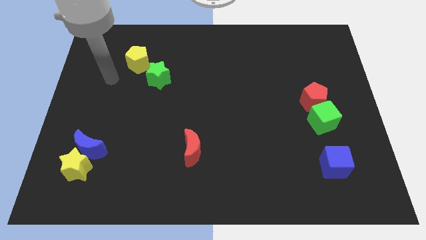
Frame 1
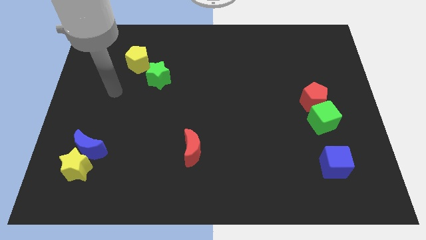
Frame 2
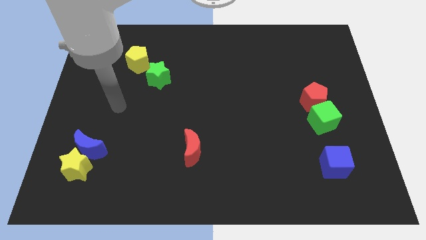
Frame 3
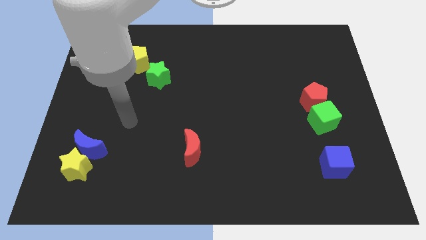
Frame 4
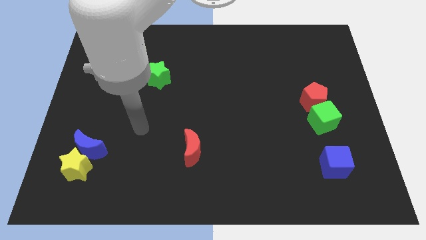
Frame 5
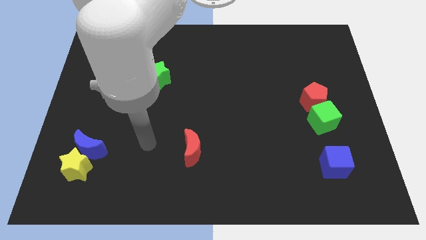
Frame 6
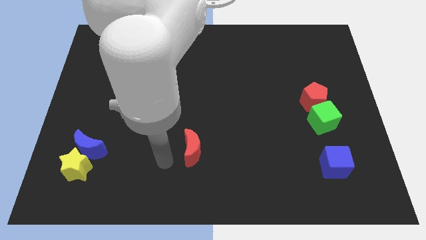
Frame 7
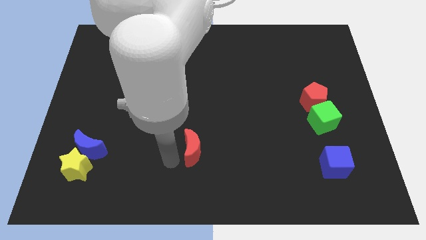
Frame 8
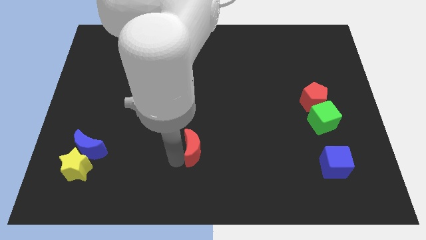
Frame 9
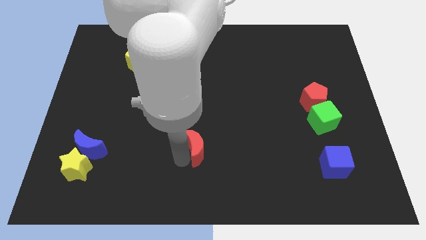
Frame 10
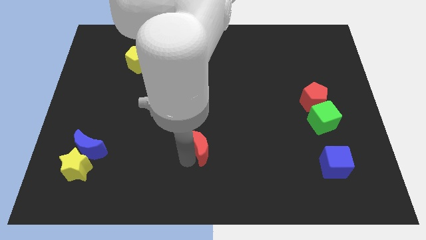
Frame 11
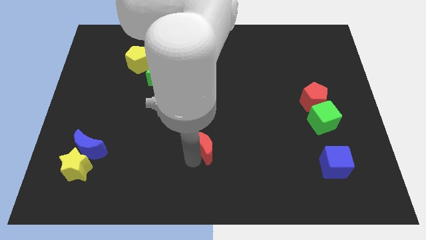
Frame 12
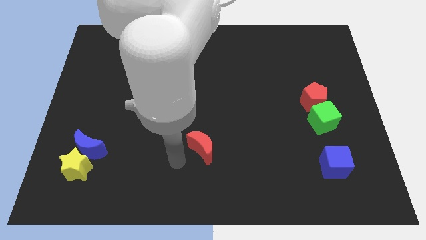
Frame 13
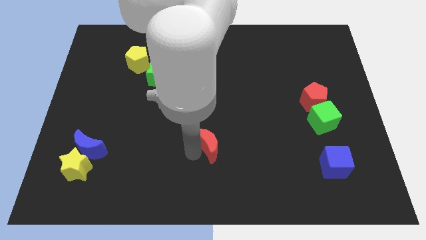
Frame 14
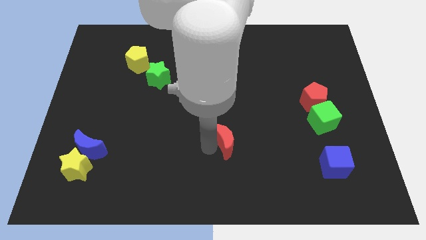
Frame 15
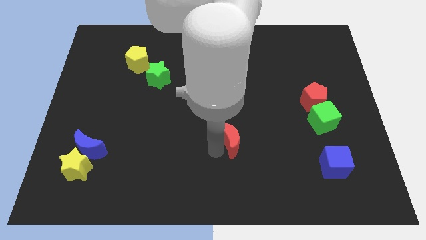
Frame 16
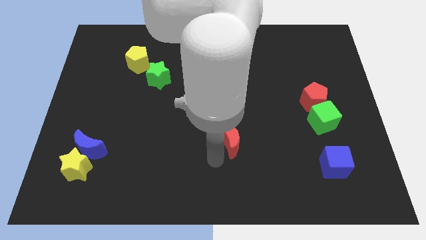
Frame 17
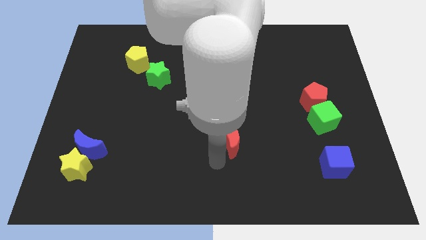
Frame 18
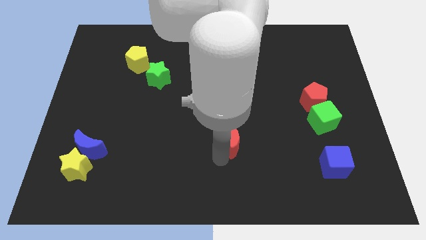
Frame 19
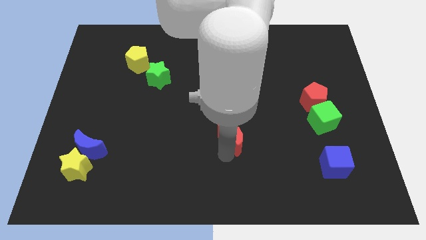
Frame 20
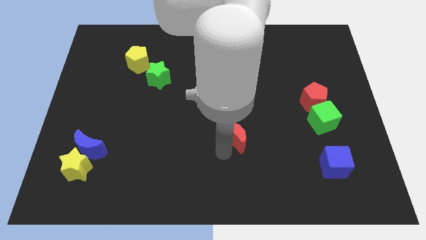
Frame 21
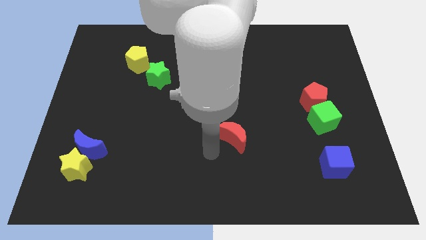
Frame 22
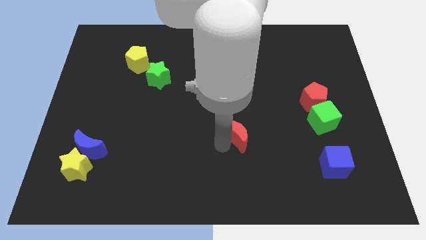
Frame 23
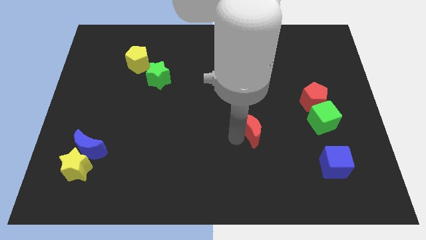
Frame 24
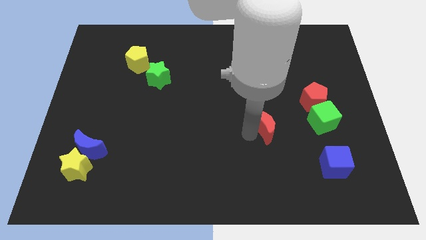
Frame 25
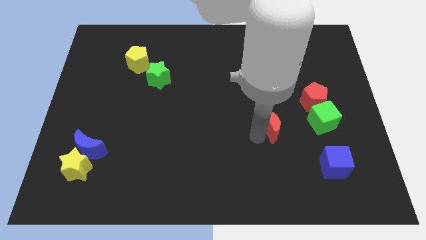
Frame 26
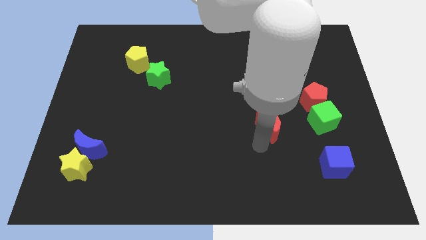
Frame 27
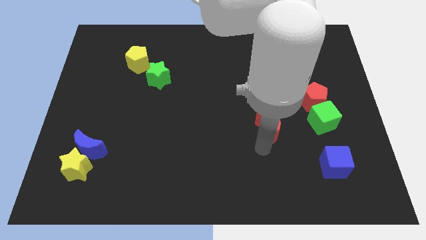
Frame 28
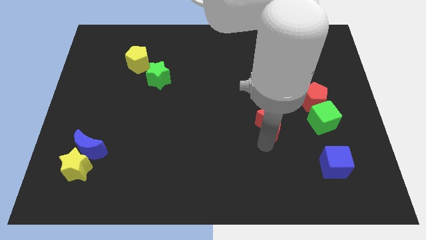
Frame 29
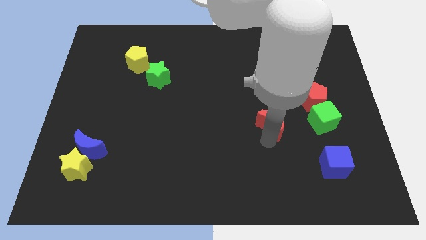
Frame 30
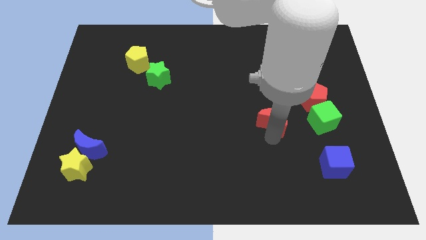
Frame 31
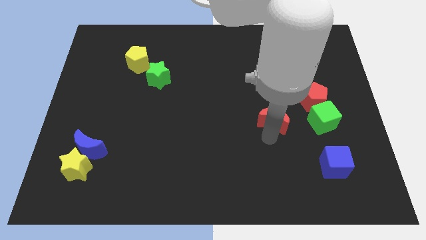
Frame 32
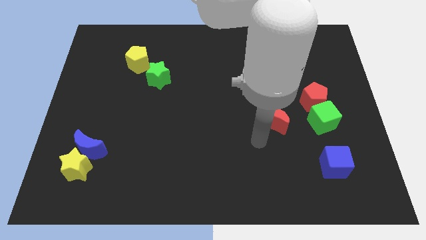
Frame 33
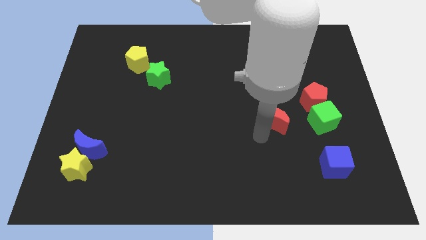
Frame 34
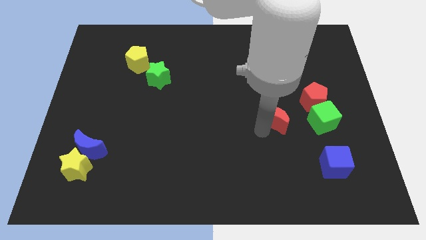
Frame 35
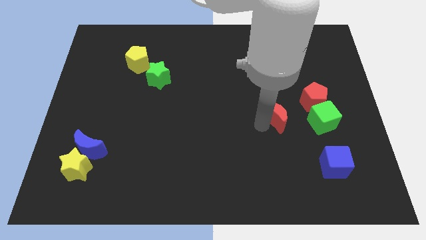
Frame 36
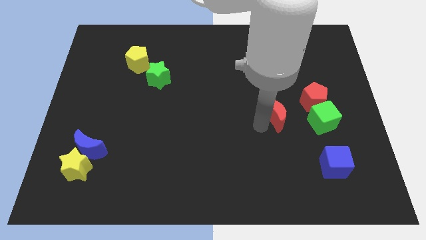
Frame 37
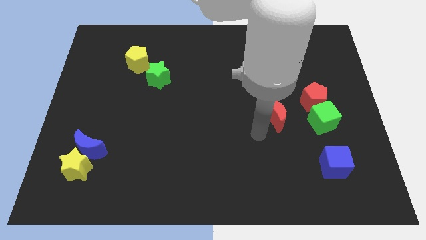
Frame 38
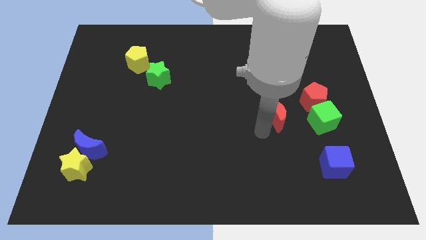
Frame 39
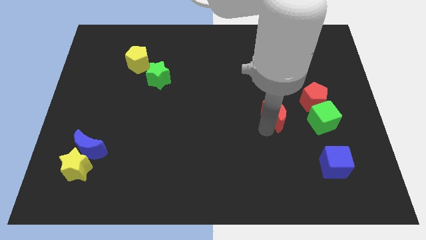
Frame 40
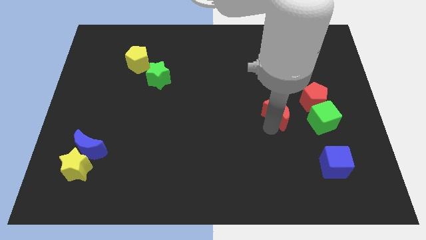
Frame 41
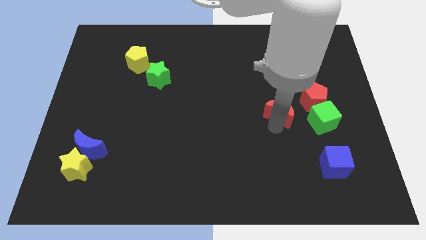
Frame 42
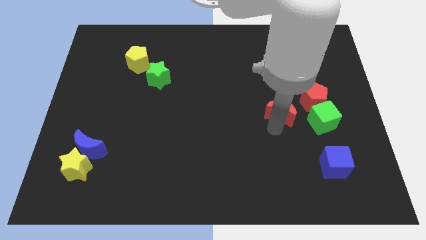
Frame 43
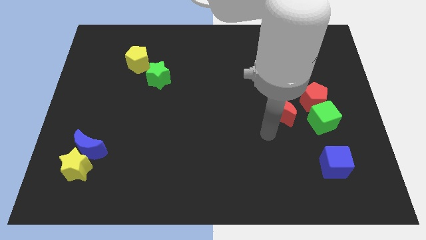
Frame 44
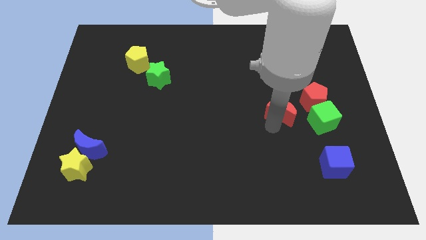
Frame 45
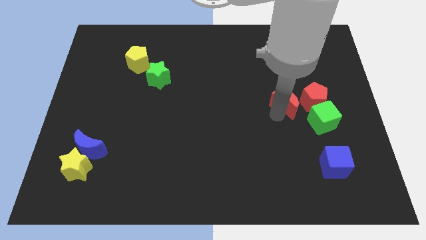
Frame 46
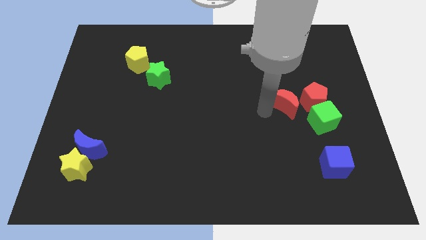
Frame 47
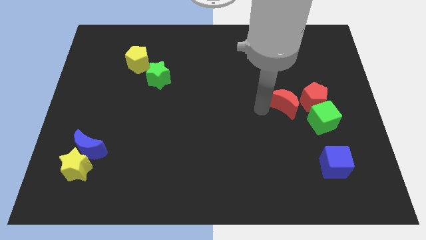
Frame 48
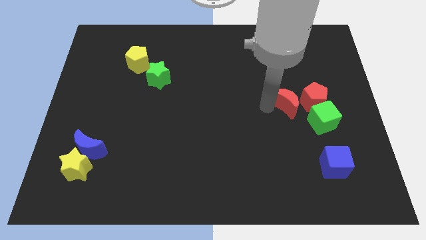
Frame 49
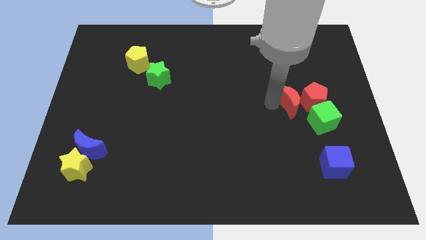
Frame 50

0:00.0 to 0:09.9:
move the red moon next to the red pentagon

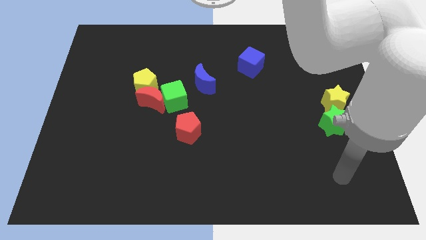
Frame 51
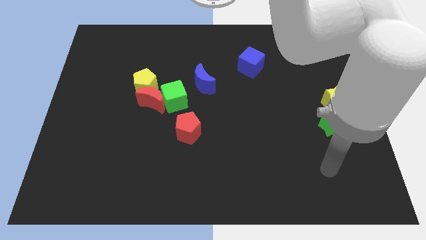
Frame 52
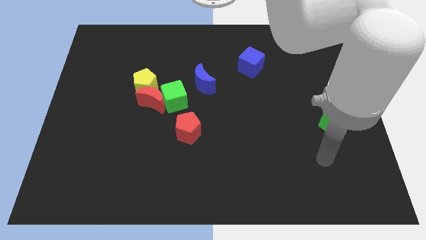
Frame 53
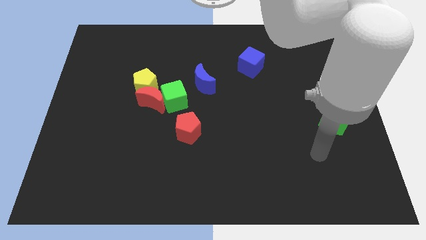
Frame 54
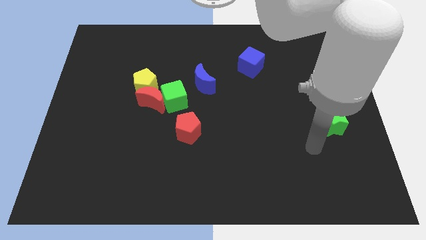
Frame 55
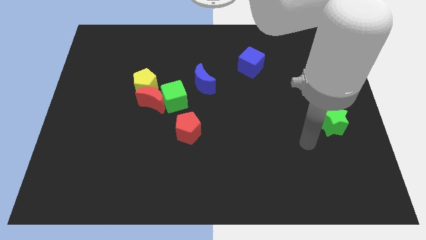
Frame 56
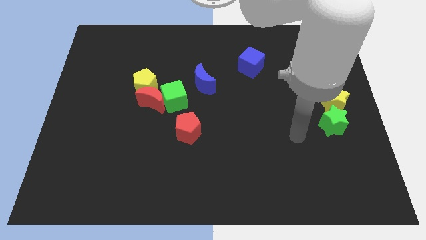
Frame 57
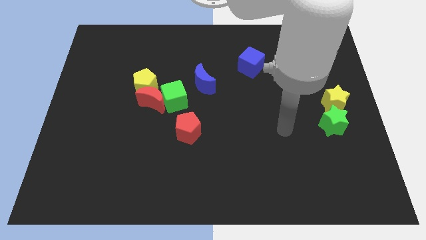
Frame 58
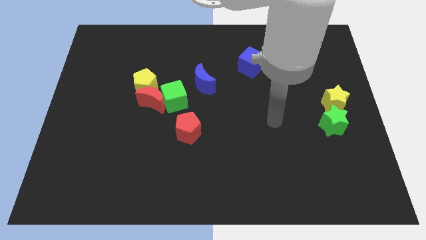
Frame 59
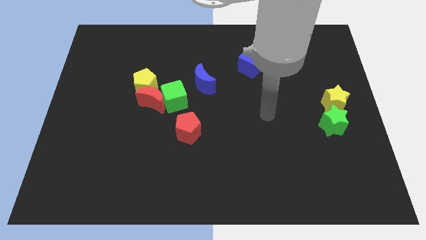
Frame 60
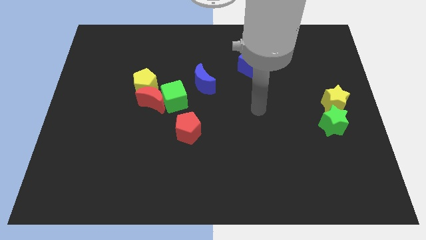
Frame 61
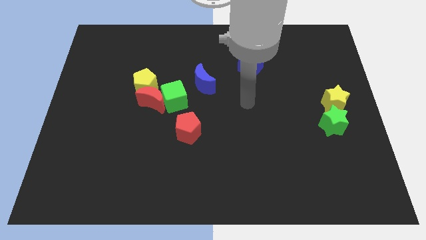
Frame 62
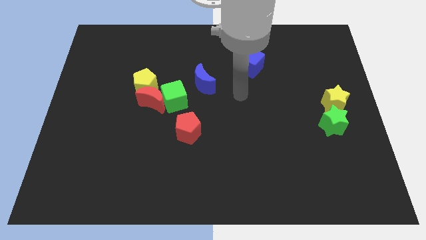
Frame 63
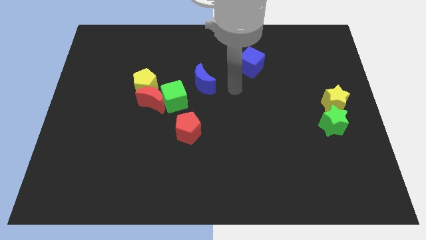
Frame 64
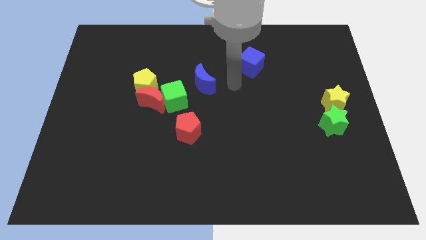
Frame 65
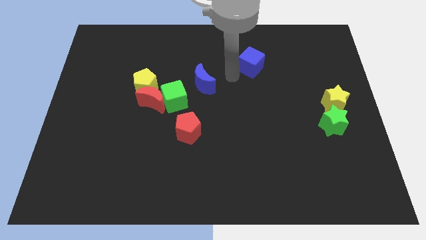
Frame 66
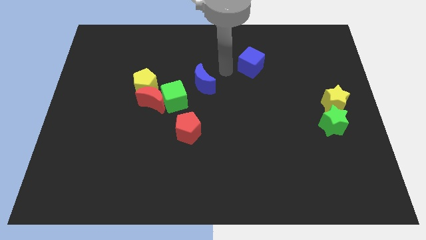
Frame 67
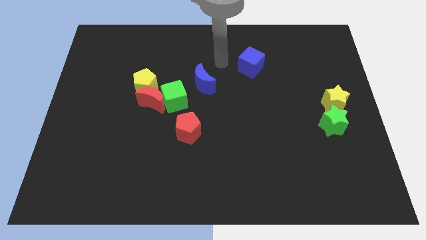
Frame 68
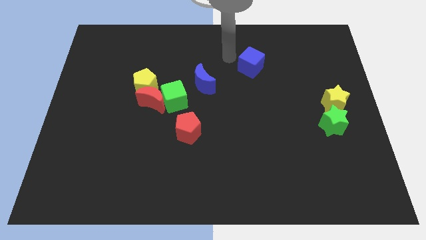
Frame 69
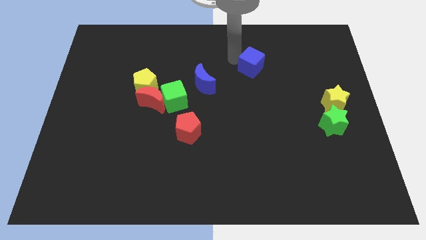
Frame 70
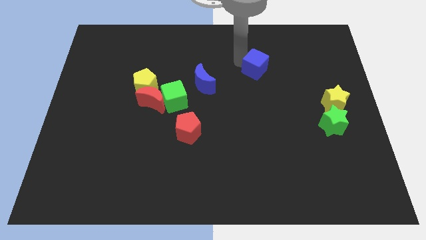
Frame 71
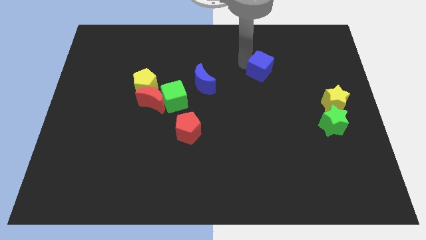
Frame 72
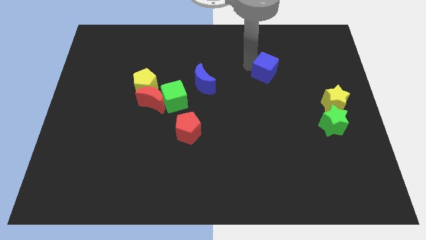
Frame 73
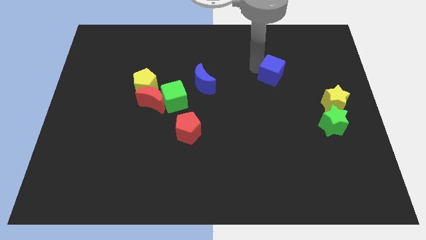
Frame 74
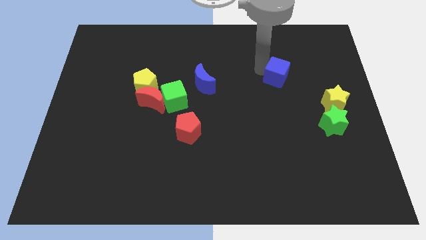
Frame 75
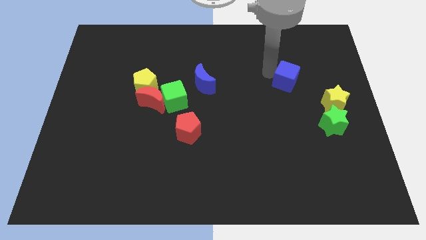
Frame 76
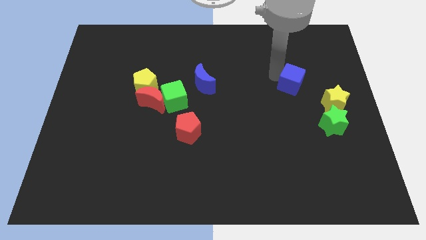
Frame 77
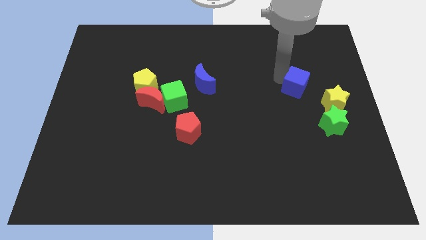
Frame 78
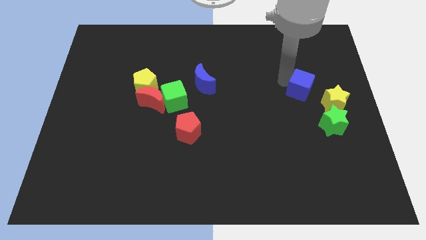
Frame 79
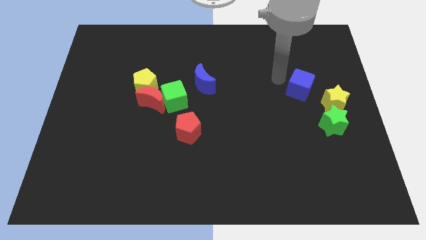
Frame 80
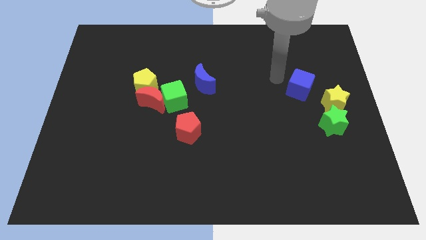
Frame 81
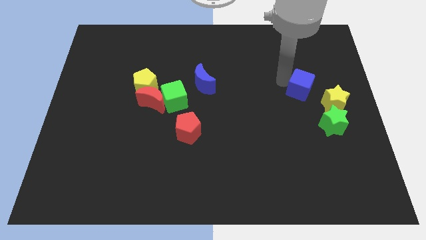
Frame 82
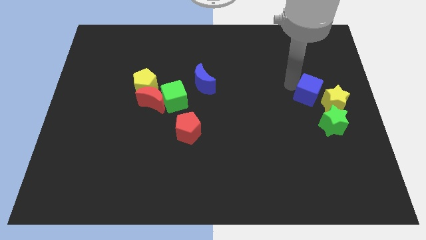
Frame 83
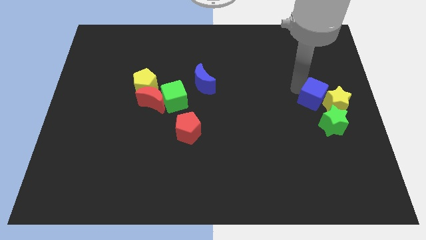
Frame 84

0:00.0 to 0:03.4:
move the blue cube close to the yellow star
